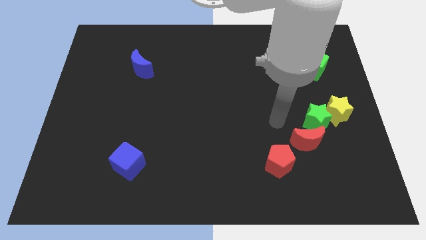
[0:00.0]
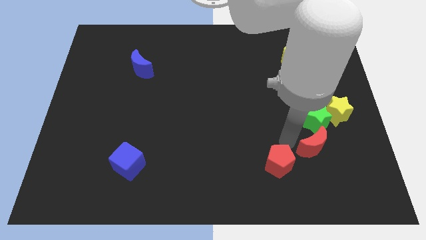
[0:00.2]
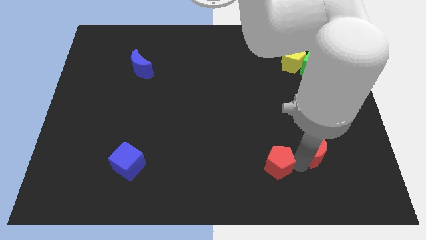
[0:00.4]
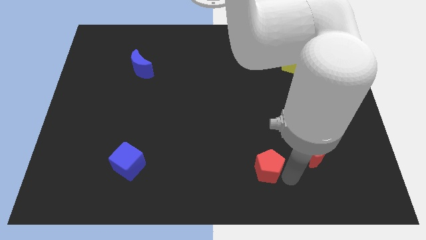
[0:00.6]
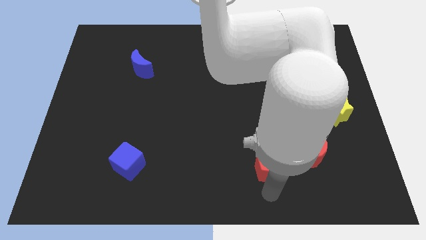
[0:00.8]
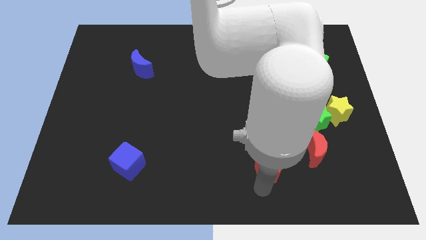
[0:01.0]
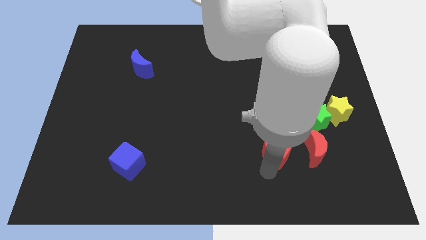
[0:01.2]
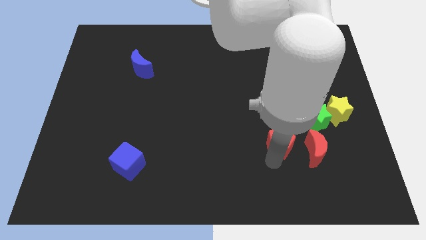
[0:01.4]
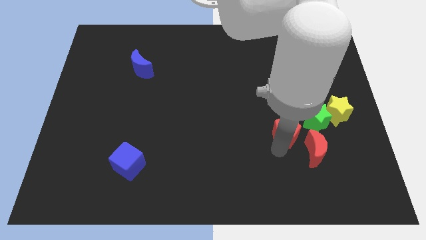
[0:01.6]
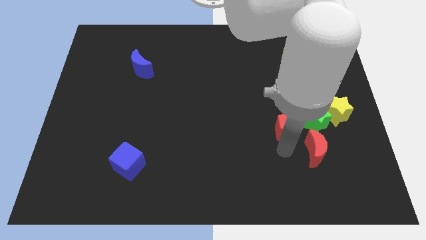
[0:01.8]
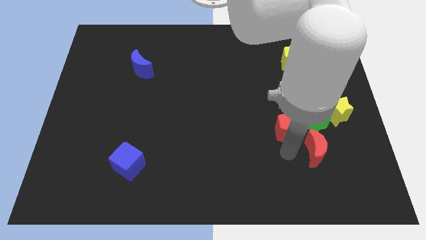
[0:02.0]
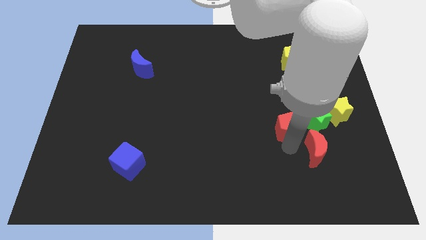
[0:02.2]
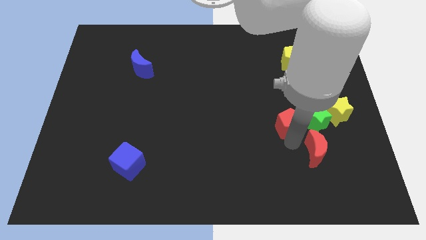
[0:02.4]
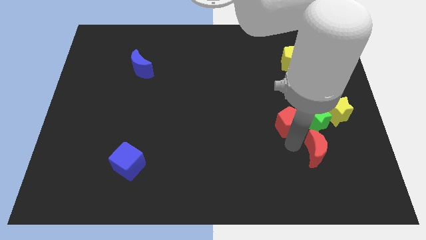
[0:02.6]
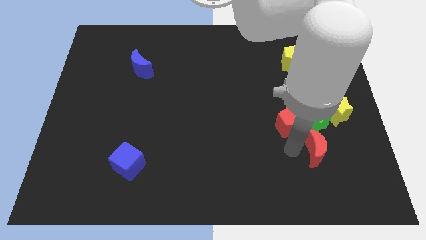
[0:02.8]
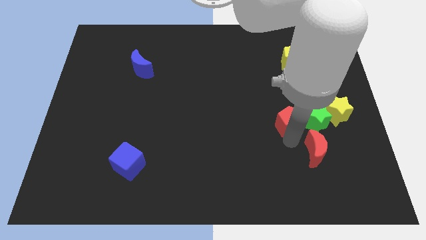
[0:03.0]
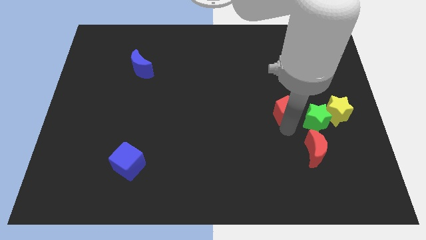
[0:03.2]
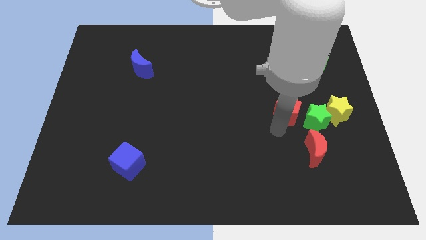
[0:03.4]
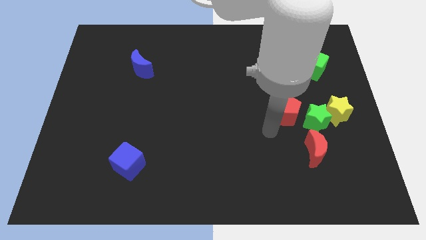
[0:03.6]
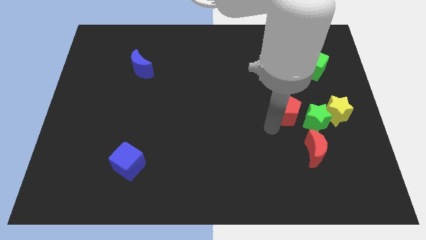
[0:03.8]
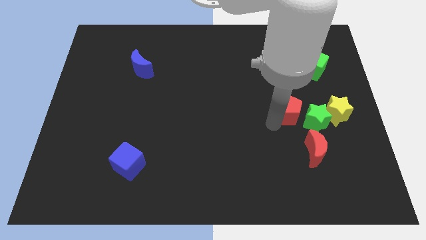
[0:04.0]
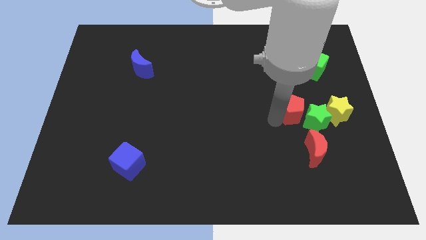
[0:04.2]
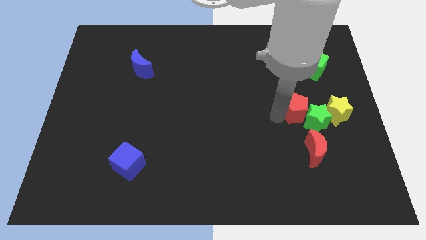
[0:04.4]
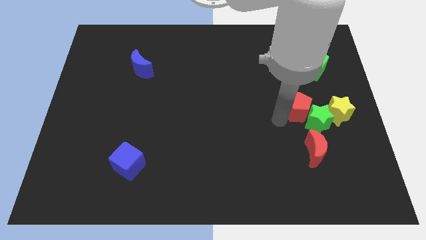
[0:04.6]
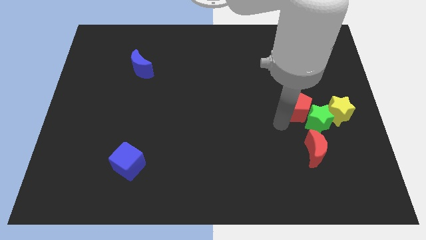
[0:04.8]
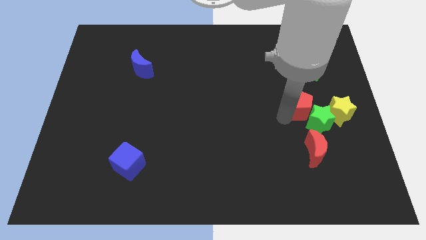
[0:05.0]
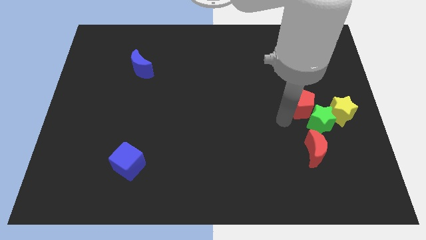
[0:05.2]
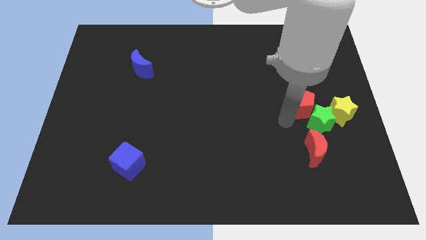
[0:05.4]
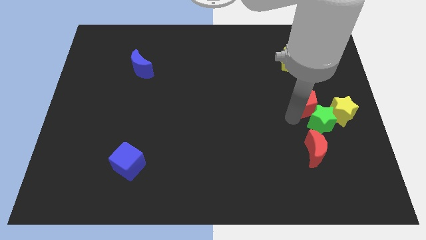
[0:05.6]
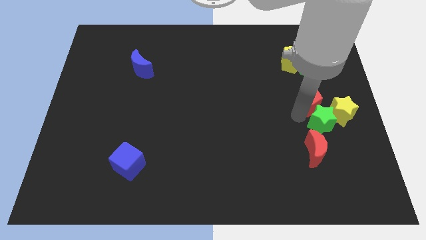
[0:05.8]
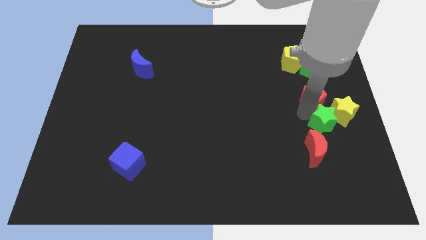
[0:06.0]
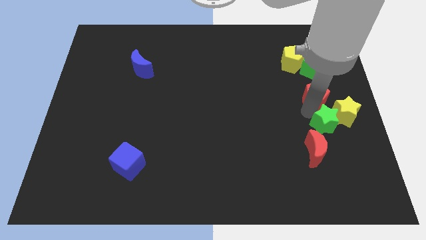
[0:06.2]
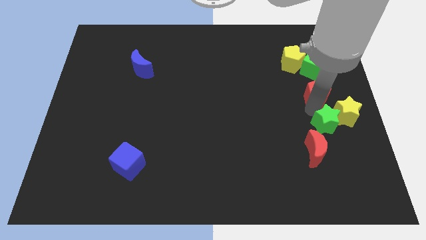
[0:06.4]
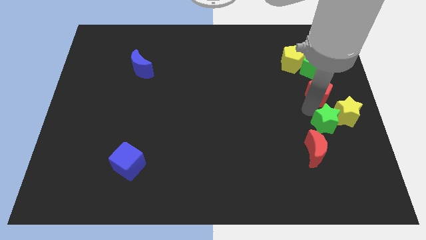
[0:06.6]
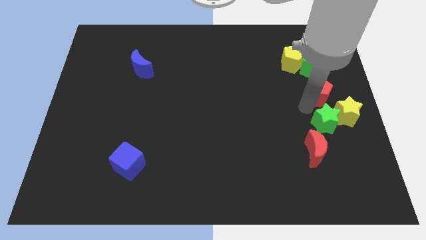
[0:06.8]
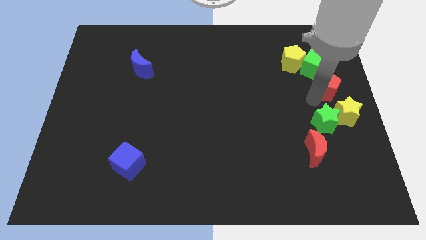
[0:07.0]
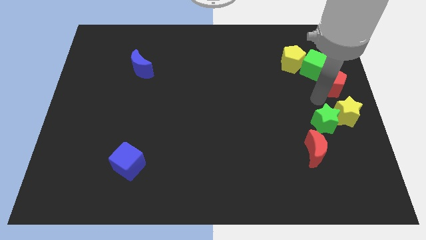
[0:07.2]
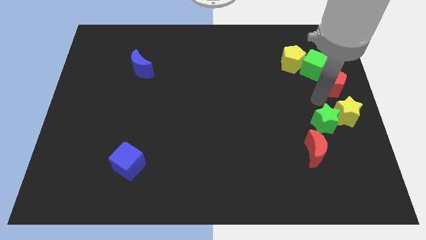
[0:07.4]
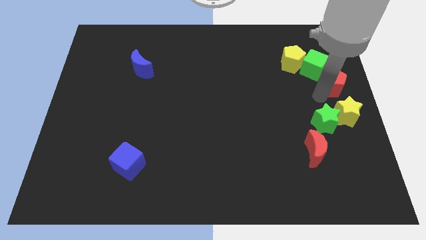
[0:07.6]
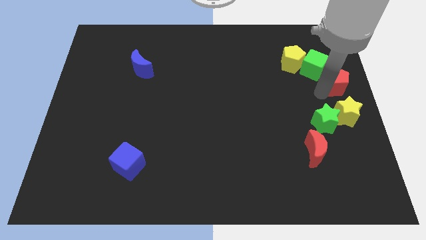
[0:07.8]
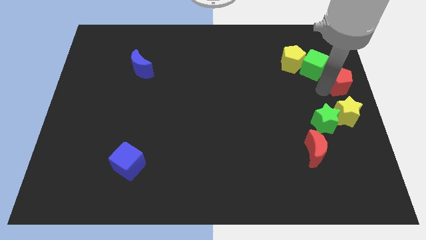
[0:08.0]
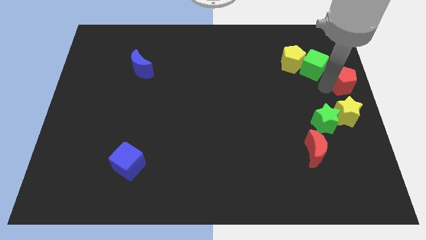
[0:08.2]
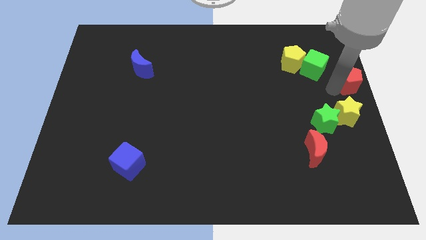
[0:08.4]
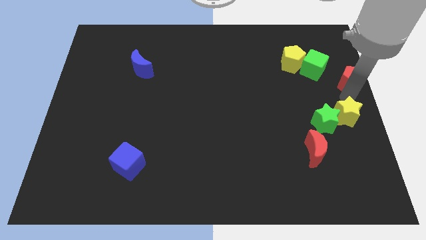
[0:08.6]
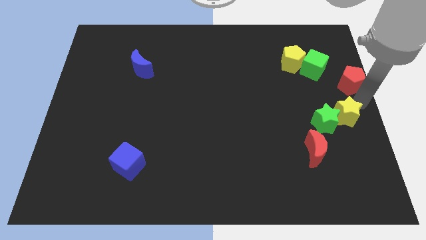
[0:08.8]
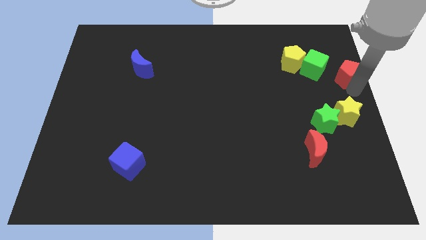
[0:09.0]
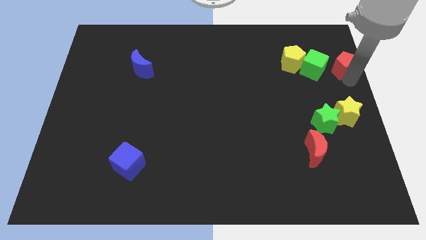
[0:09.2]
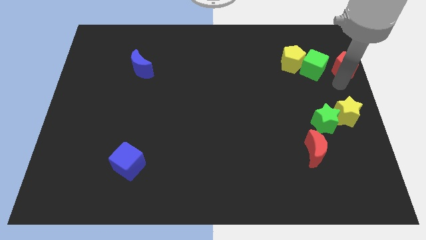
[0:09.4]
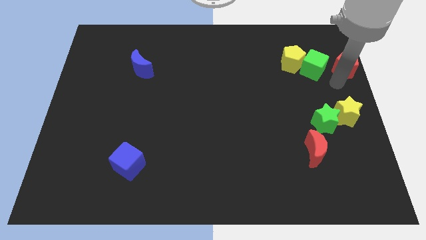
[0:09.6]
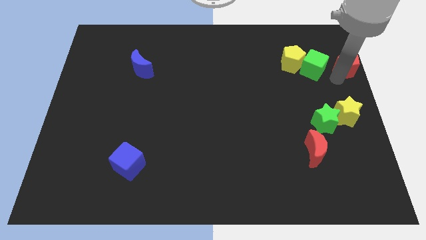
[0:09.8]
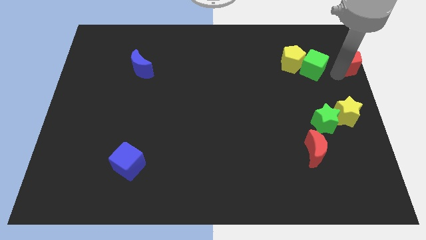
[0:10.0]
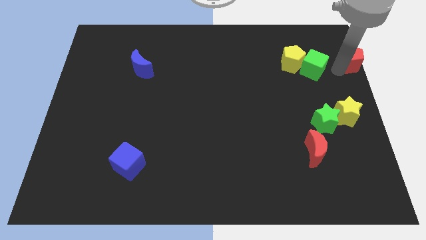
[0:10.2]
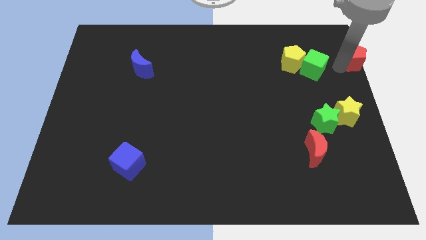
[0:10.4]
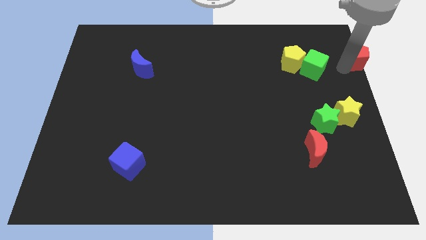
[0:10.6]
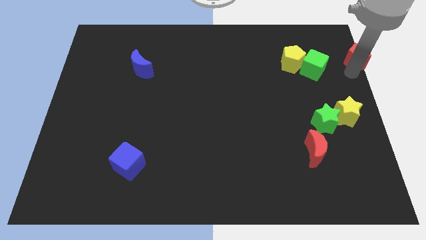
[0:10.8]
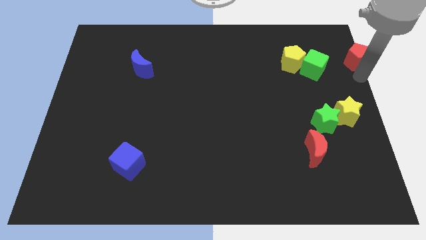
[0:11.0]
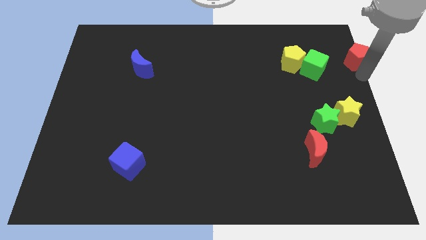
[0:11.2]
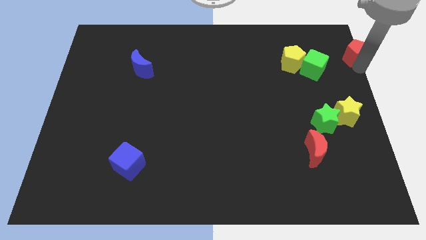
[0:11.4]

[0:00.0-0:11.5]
put the red pentagon to the top right corner

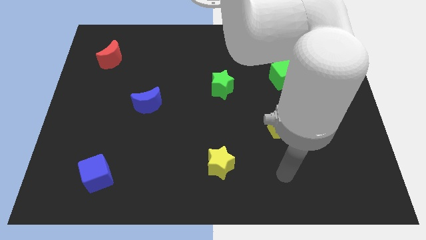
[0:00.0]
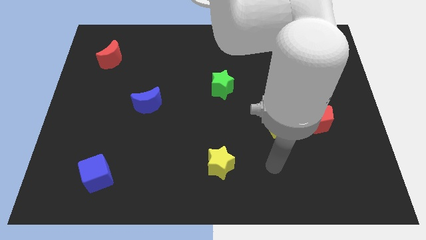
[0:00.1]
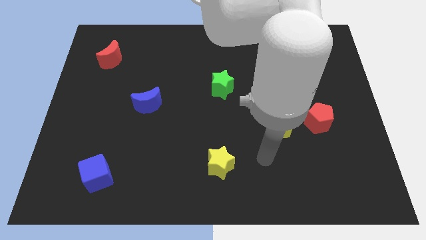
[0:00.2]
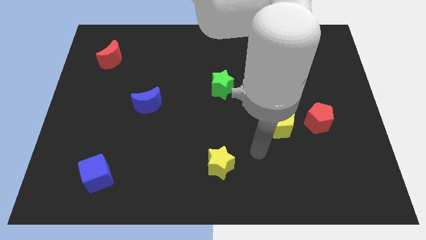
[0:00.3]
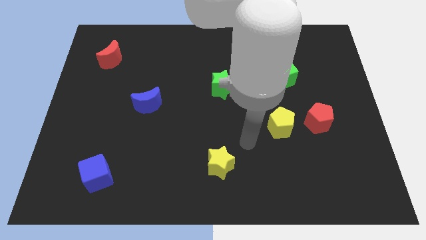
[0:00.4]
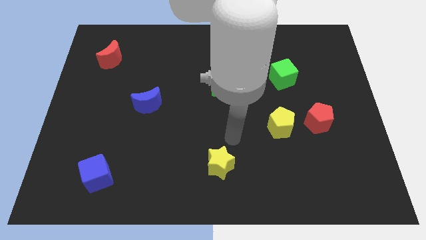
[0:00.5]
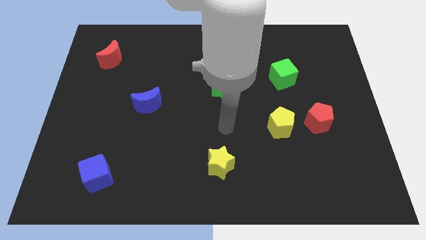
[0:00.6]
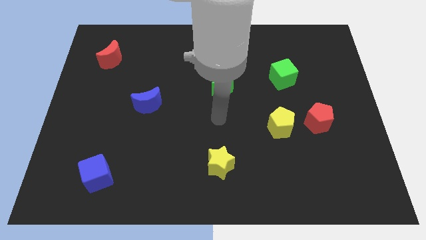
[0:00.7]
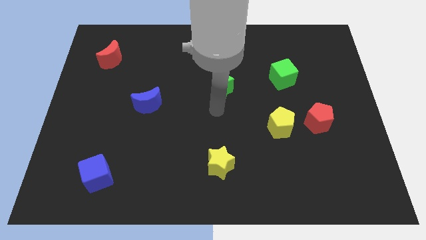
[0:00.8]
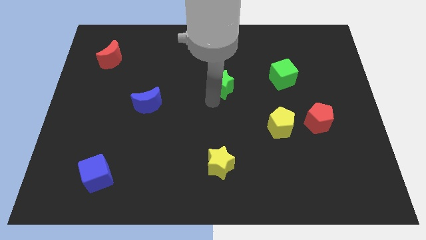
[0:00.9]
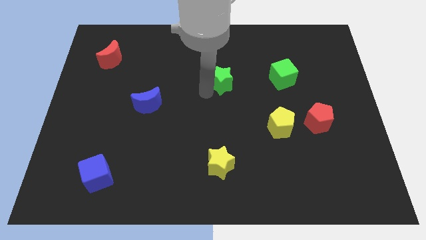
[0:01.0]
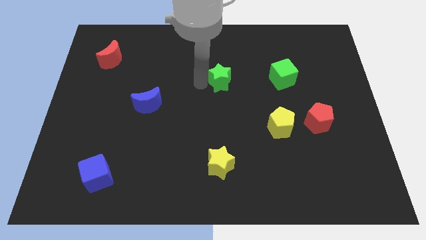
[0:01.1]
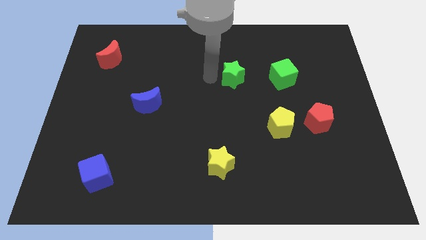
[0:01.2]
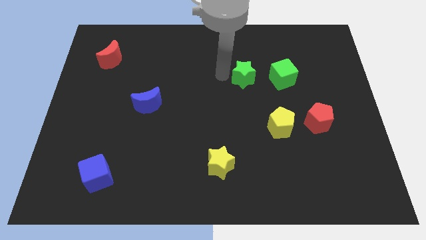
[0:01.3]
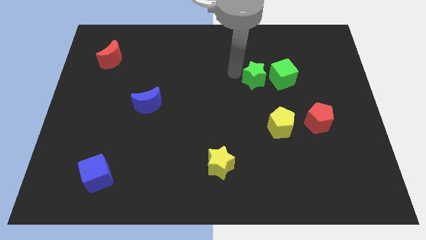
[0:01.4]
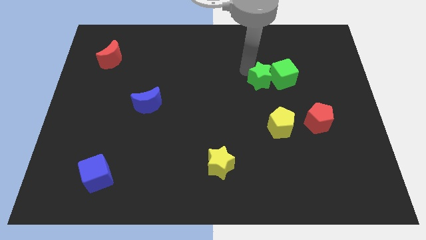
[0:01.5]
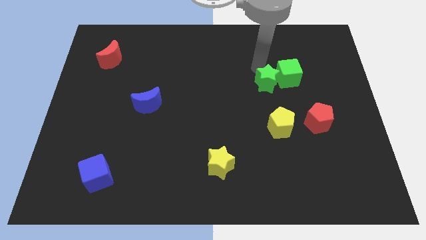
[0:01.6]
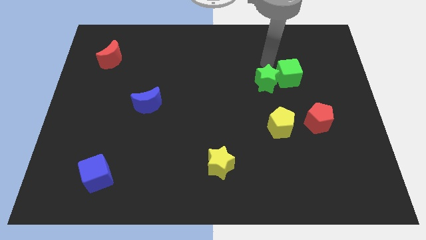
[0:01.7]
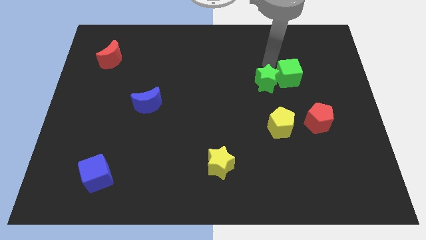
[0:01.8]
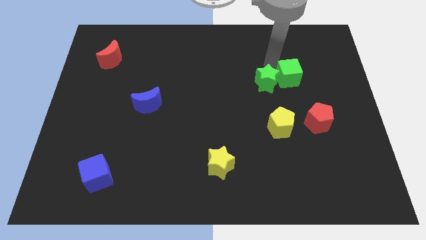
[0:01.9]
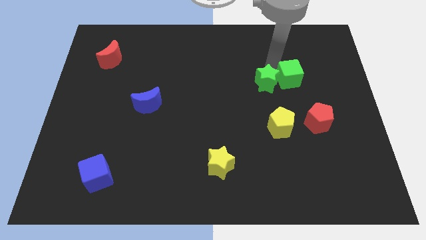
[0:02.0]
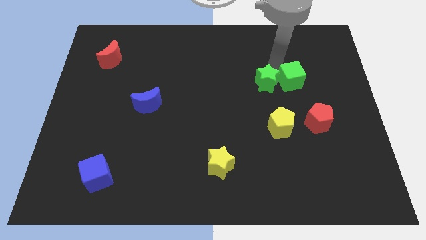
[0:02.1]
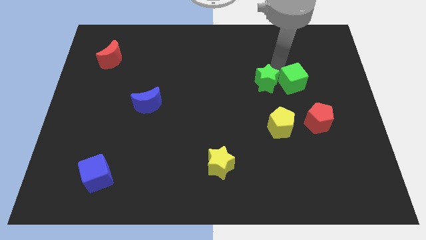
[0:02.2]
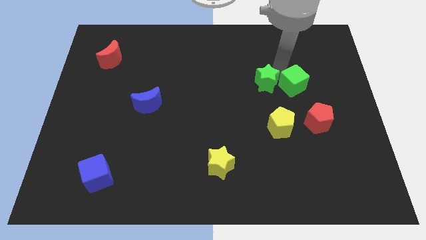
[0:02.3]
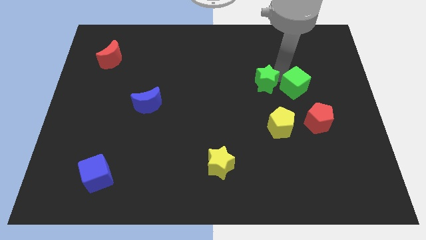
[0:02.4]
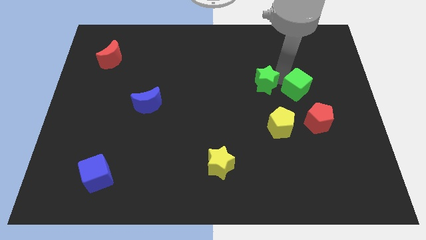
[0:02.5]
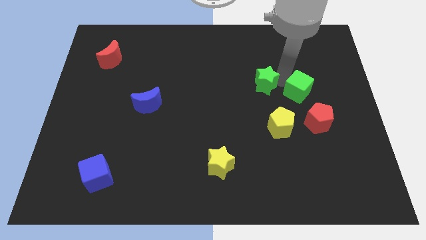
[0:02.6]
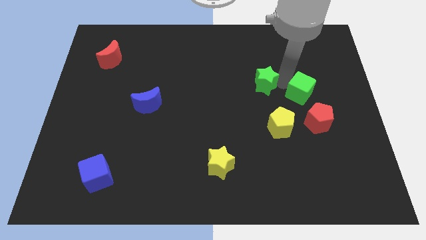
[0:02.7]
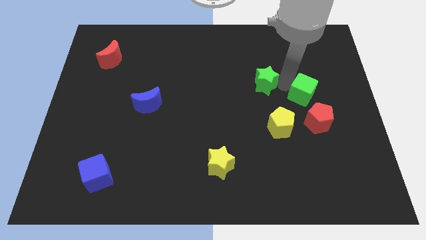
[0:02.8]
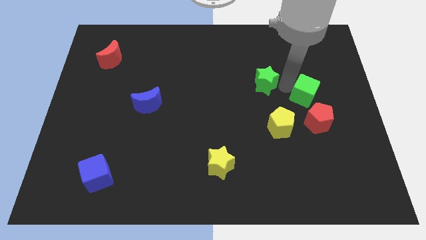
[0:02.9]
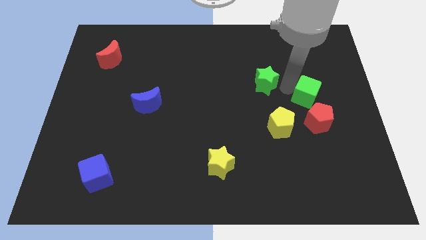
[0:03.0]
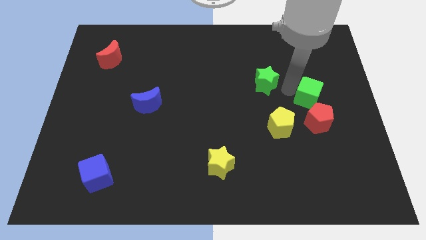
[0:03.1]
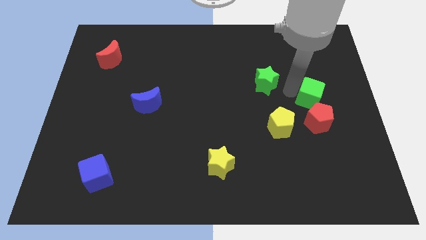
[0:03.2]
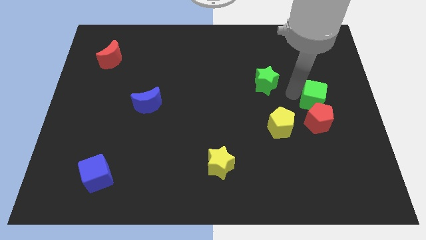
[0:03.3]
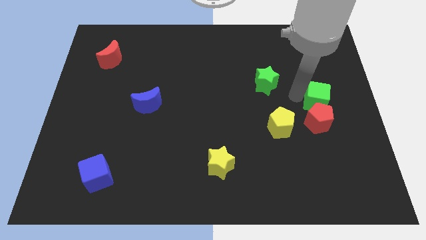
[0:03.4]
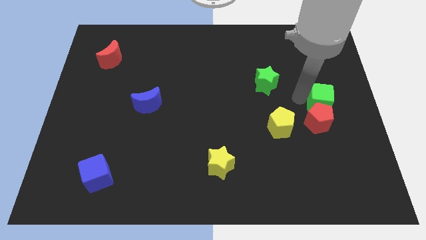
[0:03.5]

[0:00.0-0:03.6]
push the green cube to the center right
